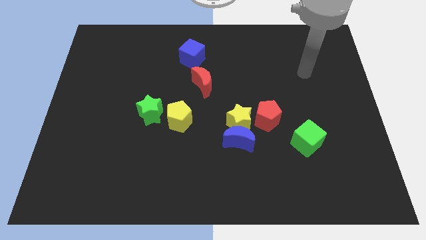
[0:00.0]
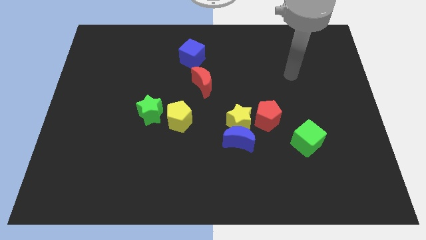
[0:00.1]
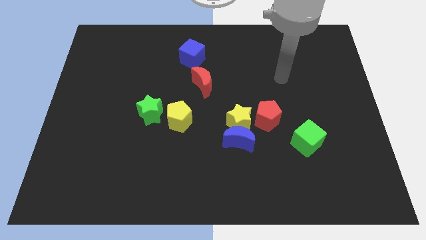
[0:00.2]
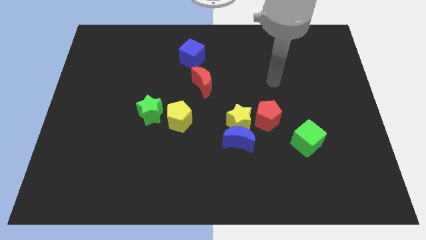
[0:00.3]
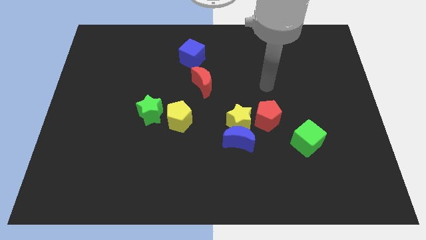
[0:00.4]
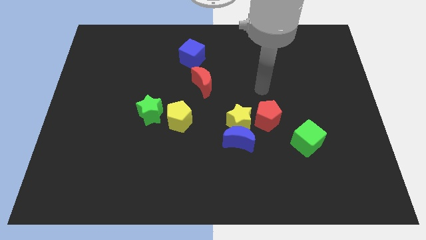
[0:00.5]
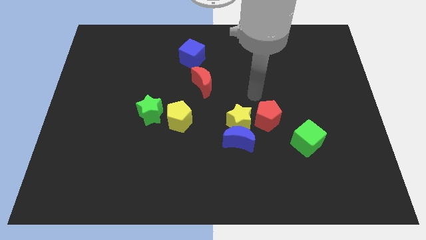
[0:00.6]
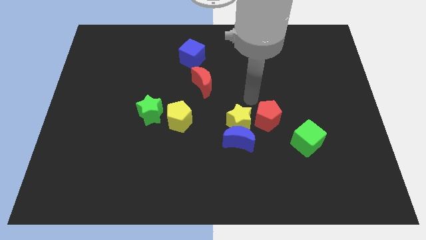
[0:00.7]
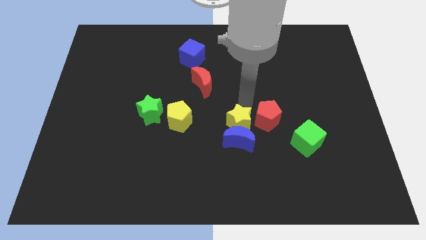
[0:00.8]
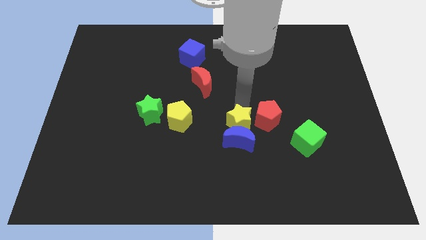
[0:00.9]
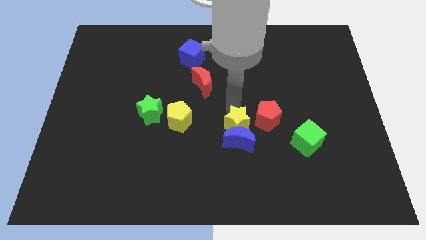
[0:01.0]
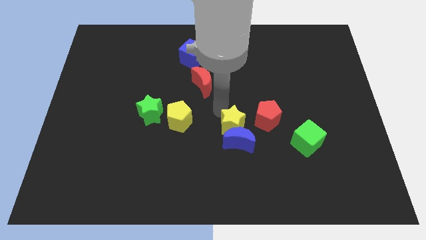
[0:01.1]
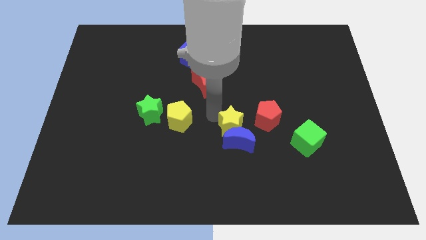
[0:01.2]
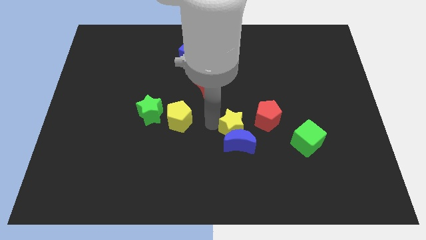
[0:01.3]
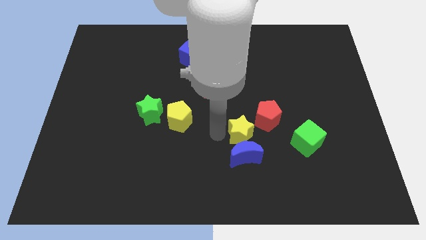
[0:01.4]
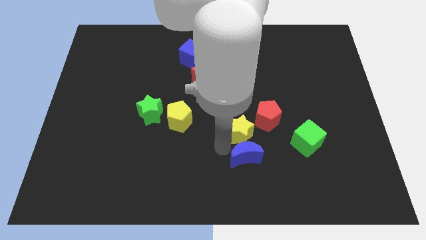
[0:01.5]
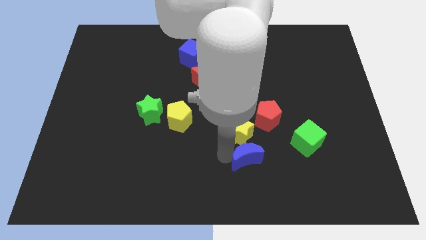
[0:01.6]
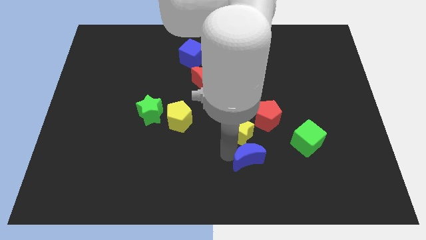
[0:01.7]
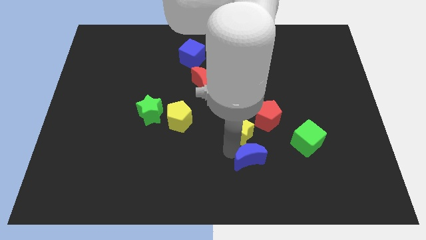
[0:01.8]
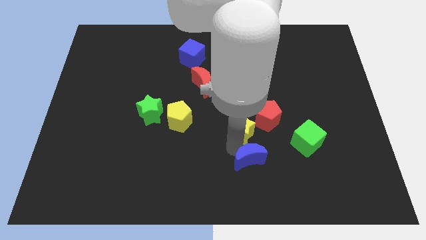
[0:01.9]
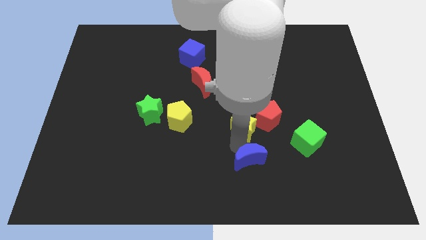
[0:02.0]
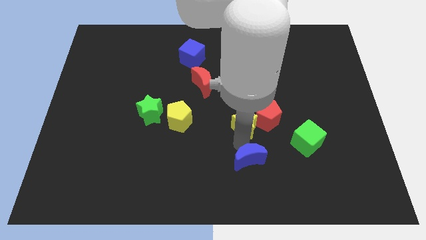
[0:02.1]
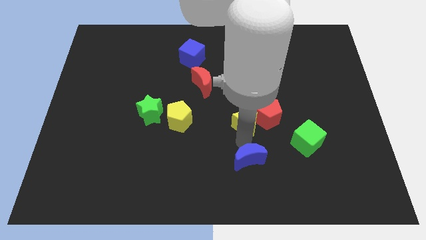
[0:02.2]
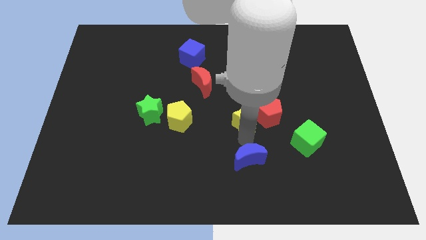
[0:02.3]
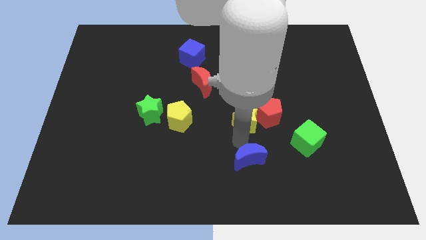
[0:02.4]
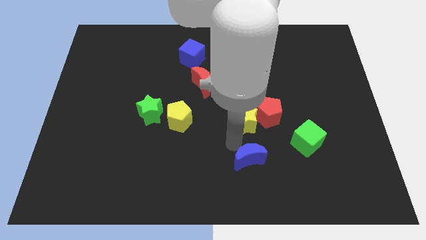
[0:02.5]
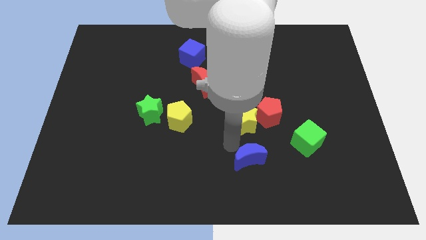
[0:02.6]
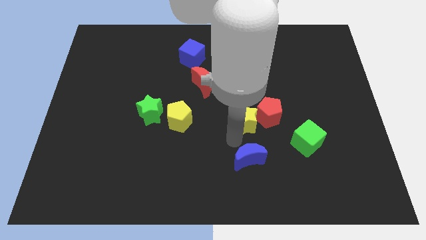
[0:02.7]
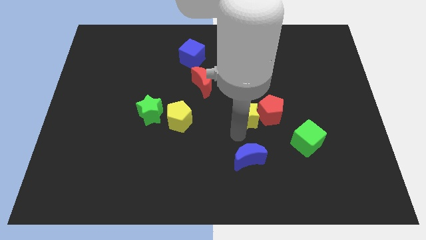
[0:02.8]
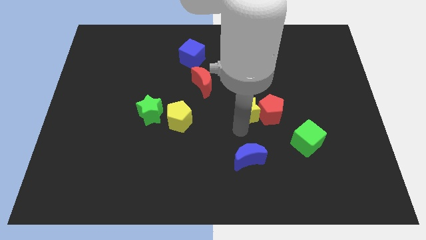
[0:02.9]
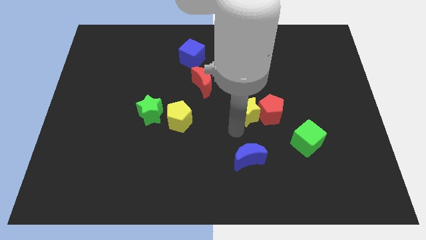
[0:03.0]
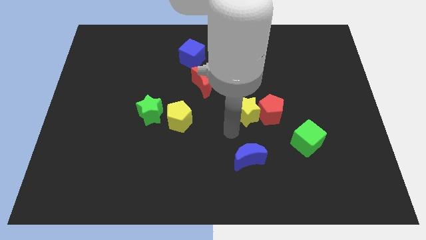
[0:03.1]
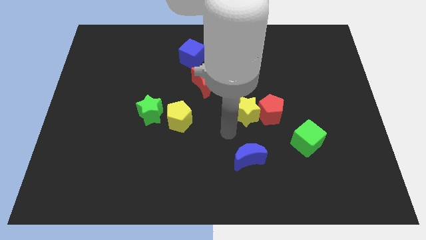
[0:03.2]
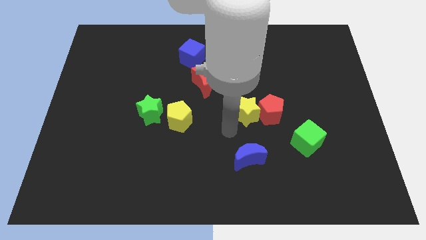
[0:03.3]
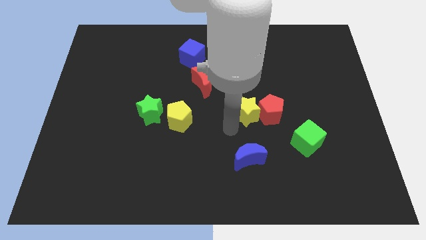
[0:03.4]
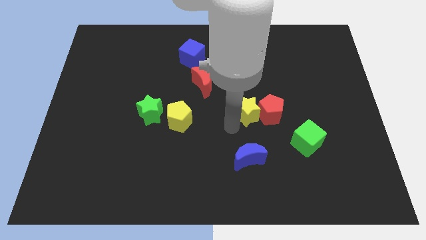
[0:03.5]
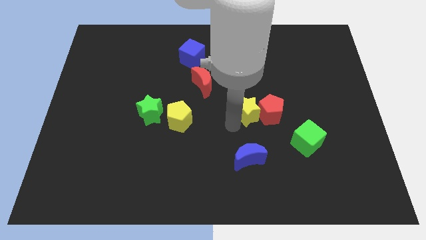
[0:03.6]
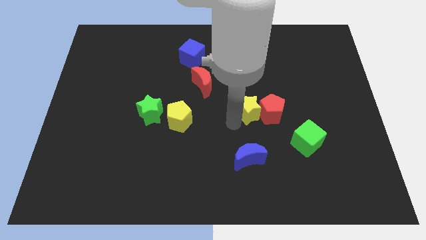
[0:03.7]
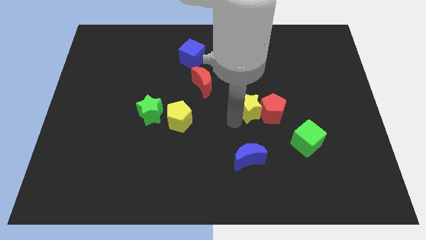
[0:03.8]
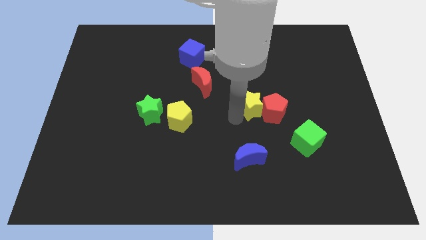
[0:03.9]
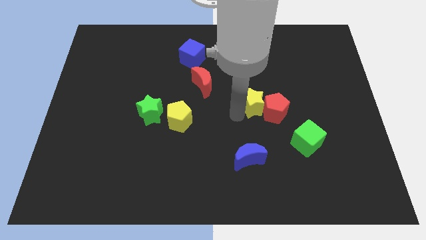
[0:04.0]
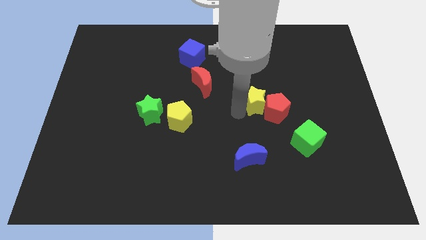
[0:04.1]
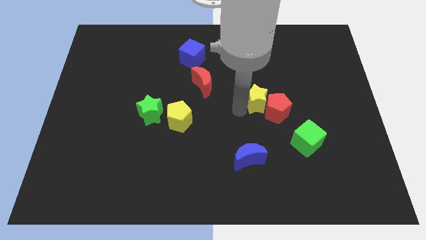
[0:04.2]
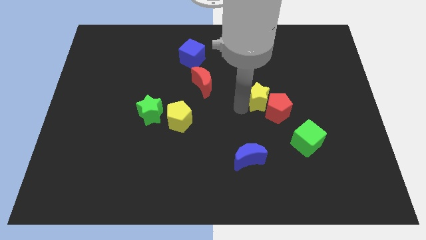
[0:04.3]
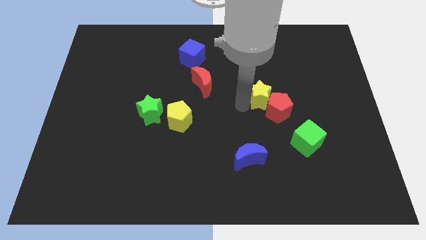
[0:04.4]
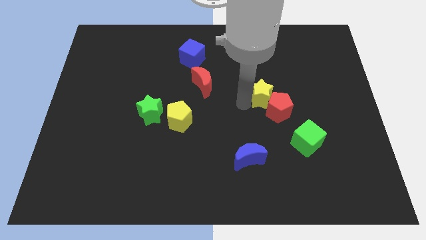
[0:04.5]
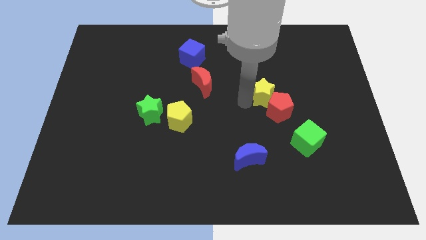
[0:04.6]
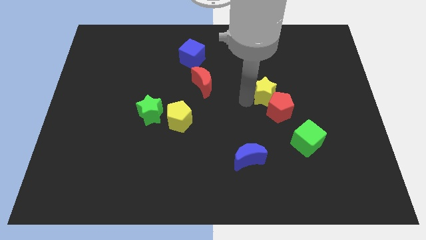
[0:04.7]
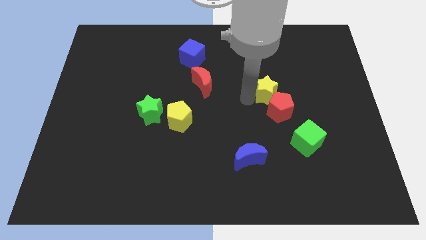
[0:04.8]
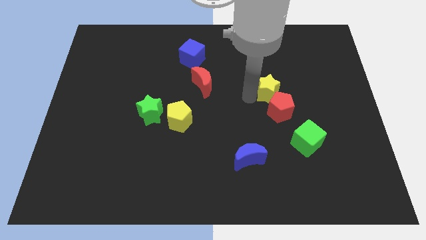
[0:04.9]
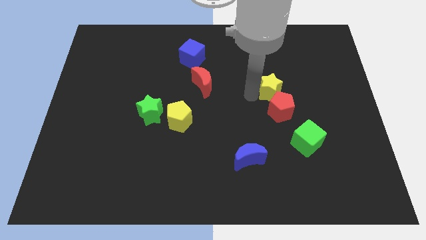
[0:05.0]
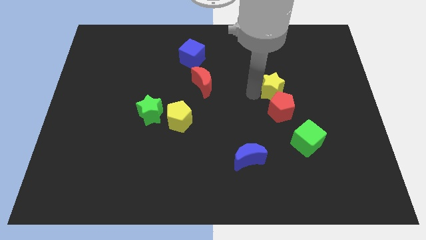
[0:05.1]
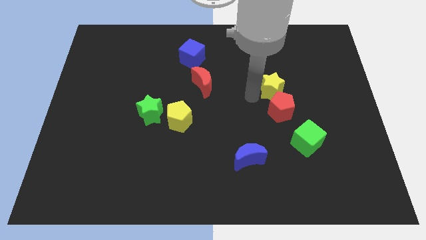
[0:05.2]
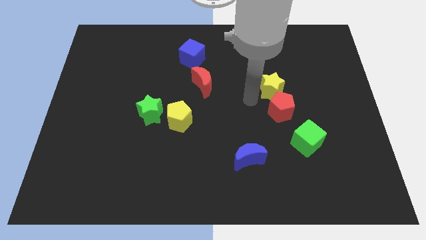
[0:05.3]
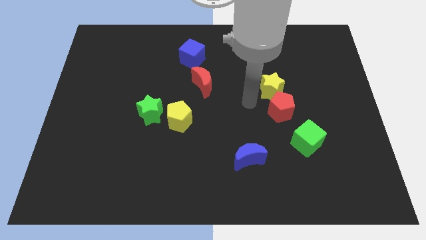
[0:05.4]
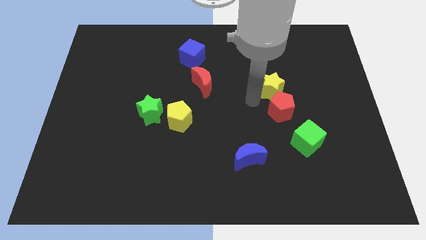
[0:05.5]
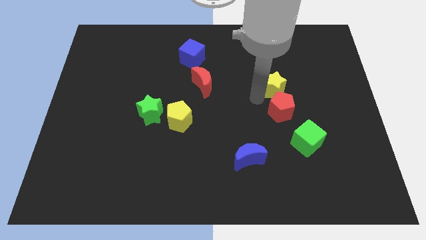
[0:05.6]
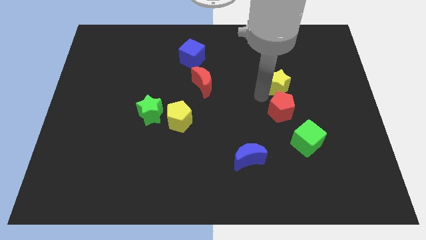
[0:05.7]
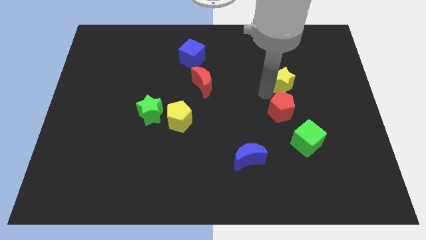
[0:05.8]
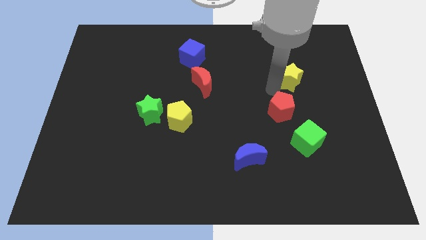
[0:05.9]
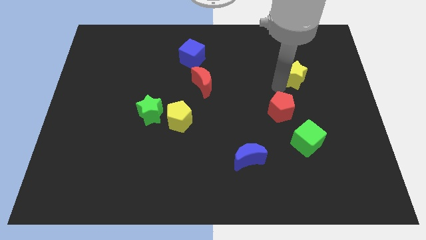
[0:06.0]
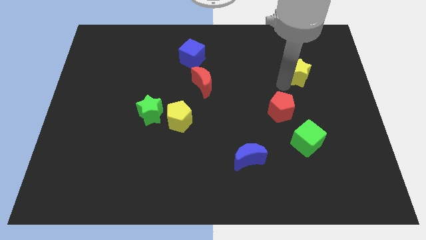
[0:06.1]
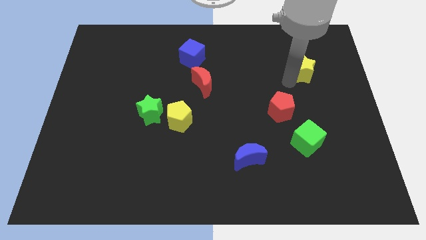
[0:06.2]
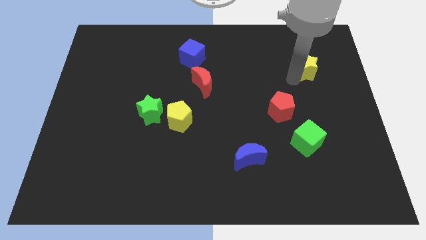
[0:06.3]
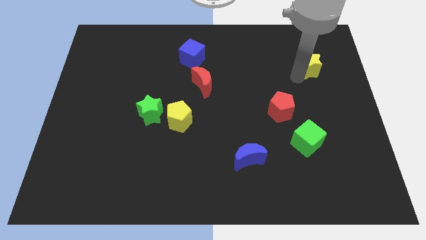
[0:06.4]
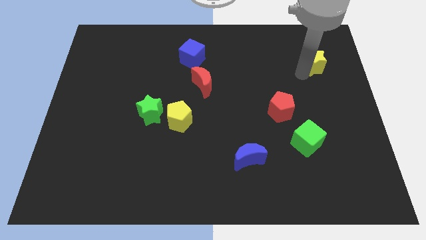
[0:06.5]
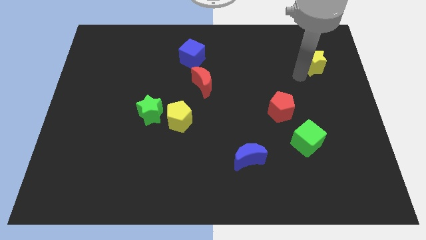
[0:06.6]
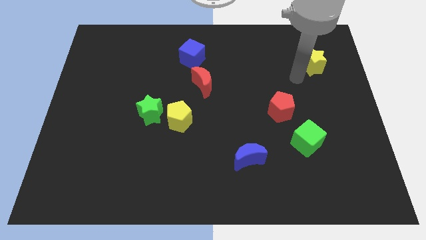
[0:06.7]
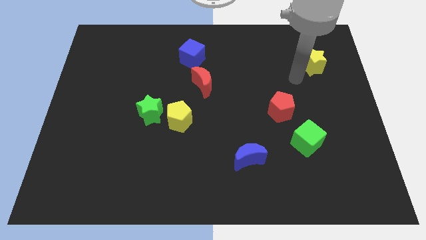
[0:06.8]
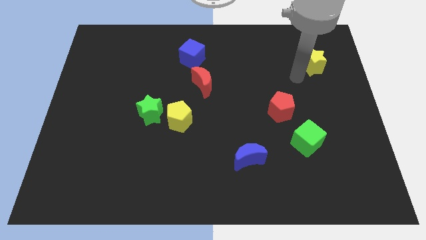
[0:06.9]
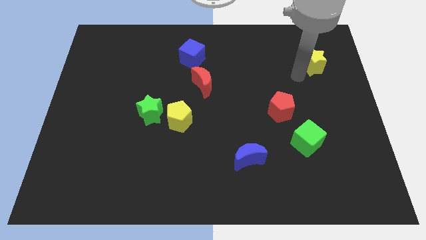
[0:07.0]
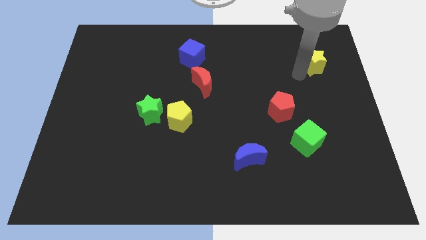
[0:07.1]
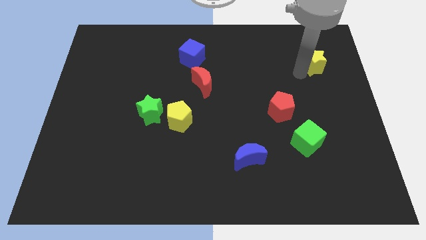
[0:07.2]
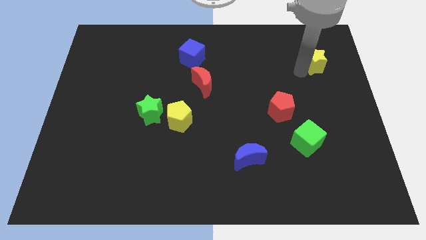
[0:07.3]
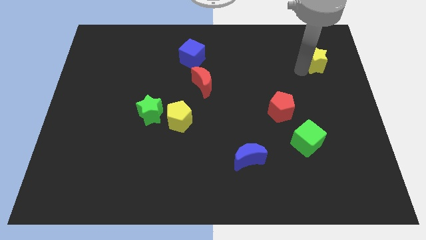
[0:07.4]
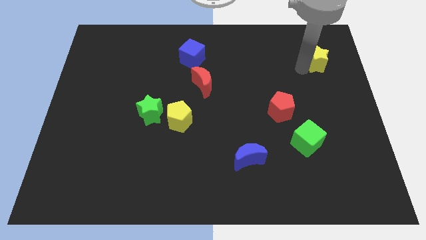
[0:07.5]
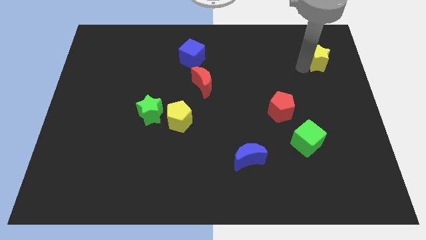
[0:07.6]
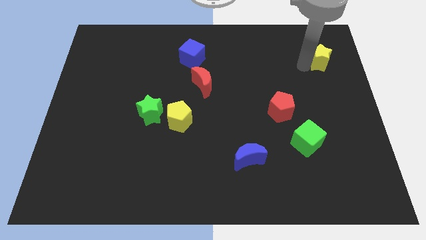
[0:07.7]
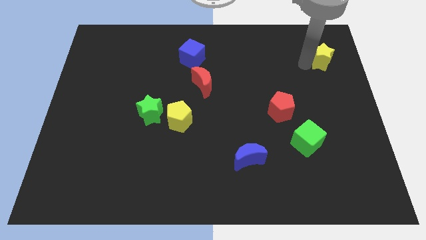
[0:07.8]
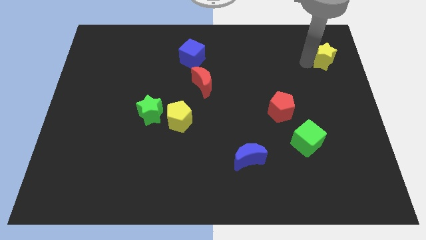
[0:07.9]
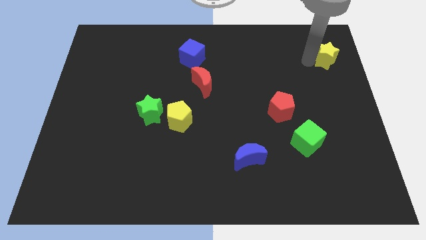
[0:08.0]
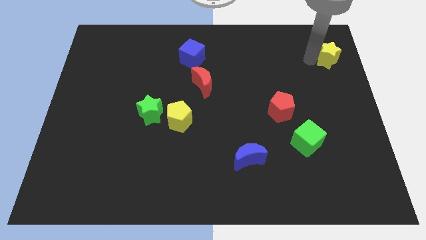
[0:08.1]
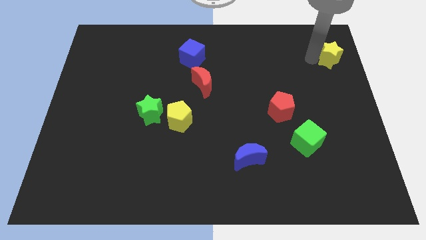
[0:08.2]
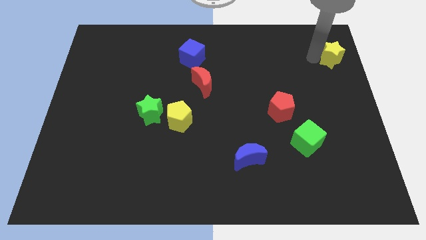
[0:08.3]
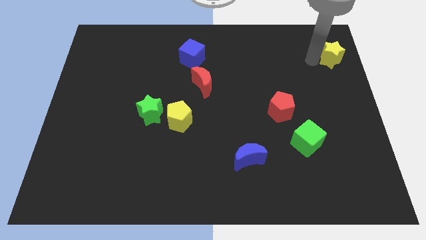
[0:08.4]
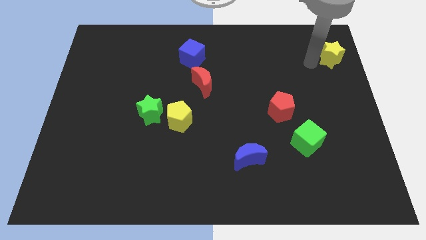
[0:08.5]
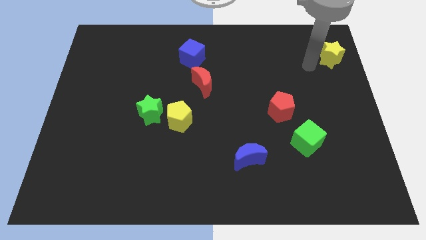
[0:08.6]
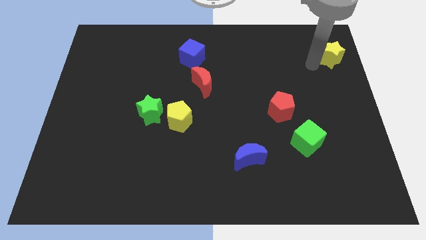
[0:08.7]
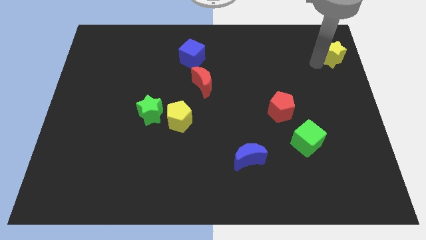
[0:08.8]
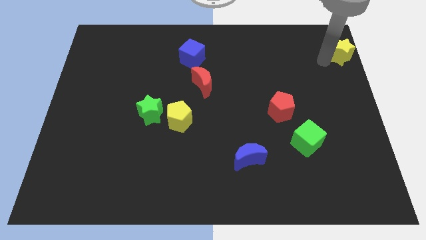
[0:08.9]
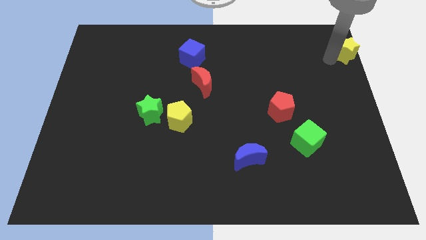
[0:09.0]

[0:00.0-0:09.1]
move the yellow star to the top right of the board
